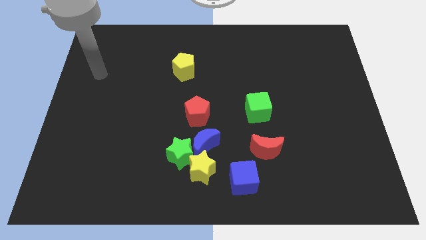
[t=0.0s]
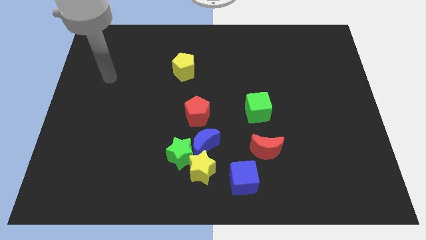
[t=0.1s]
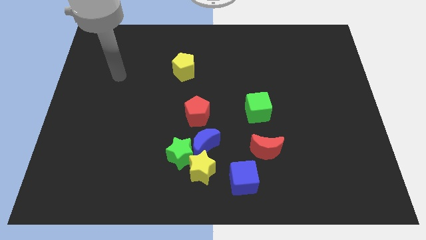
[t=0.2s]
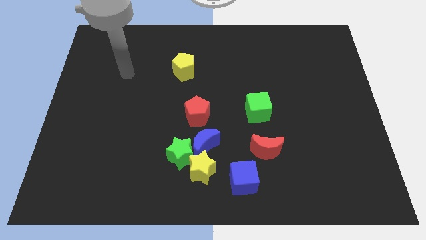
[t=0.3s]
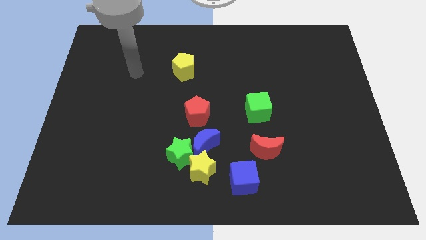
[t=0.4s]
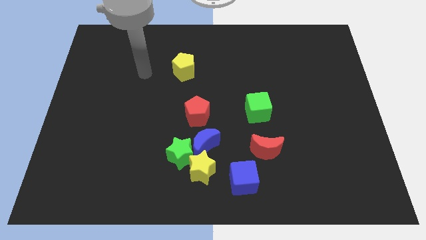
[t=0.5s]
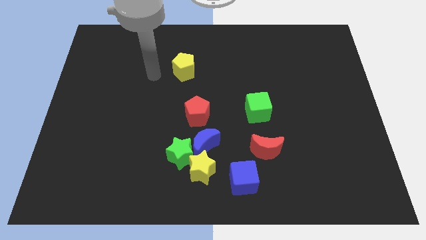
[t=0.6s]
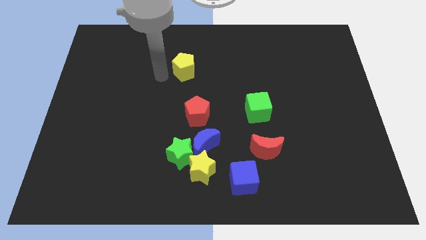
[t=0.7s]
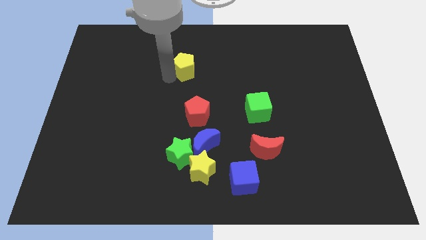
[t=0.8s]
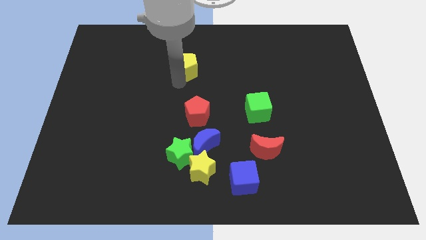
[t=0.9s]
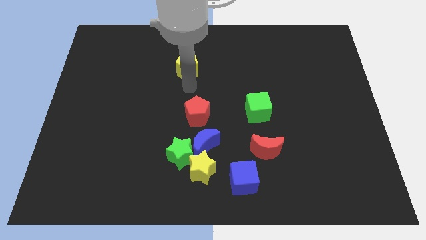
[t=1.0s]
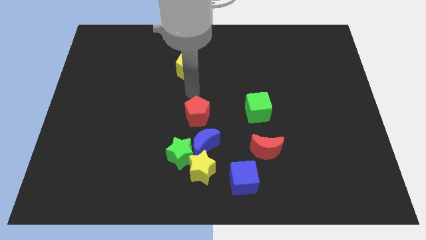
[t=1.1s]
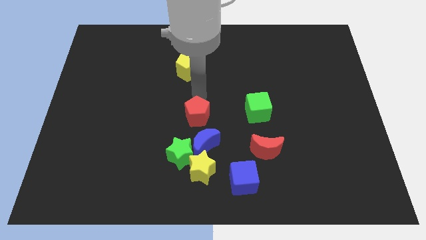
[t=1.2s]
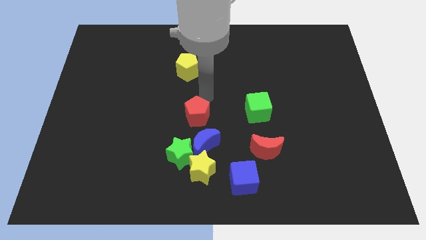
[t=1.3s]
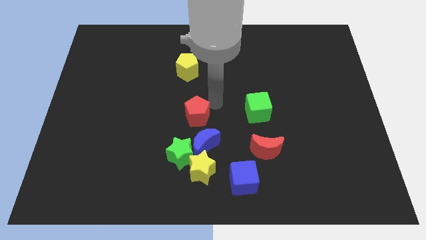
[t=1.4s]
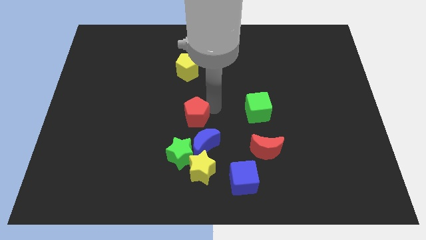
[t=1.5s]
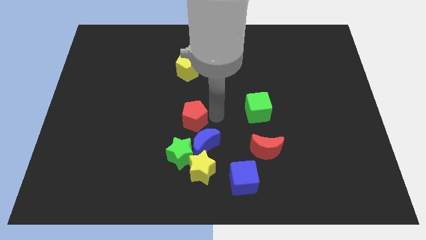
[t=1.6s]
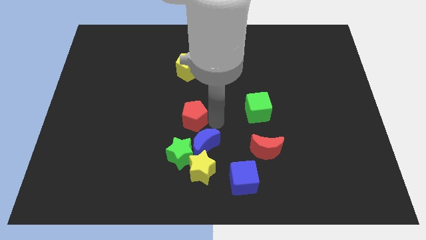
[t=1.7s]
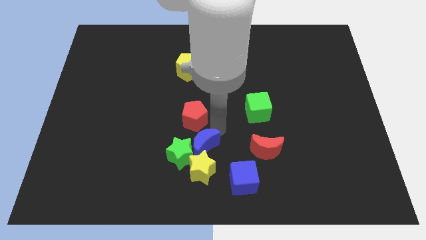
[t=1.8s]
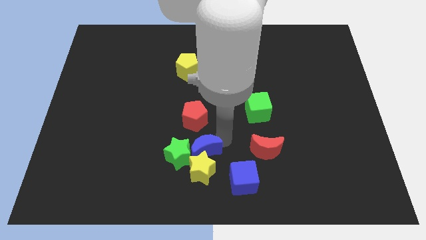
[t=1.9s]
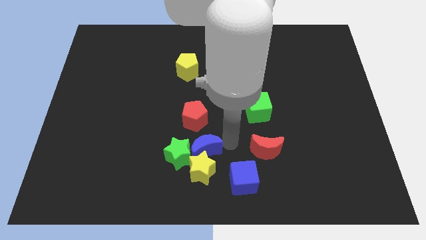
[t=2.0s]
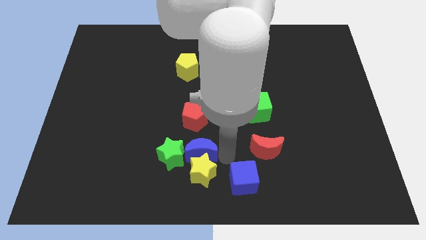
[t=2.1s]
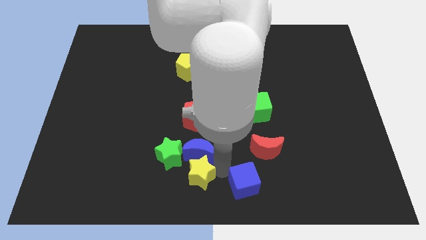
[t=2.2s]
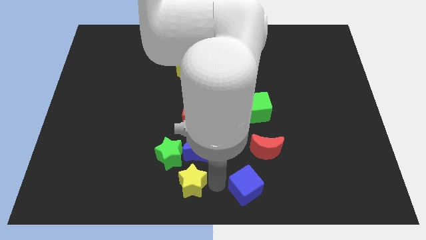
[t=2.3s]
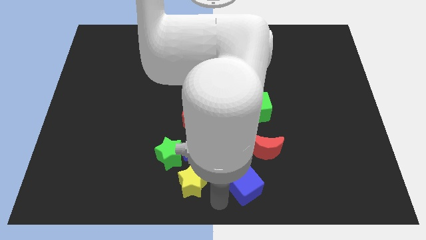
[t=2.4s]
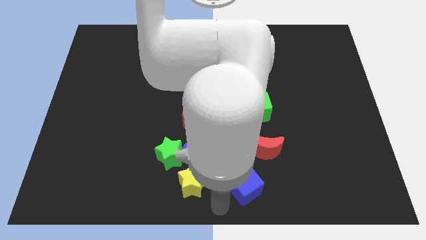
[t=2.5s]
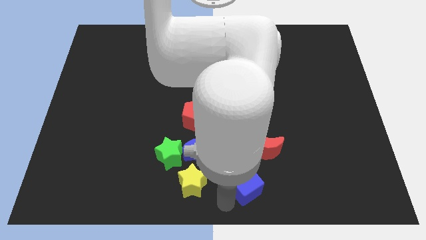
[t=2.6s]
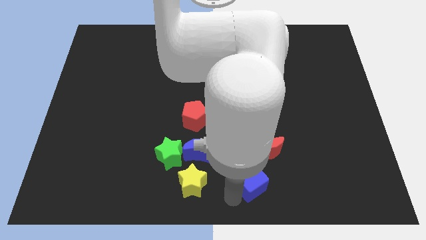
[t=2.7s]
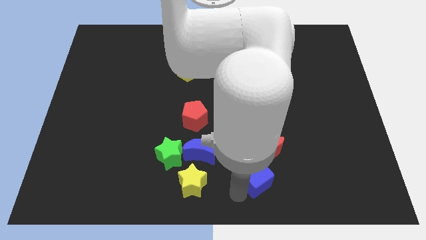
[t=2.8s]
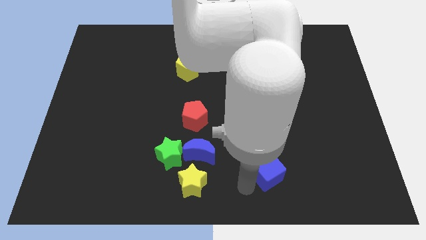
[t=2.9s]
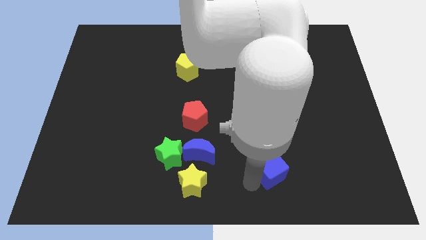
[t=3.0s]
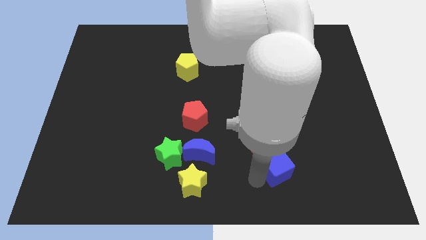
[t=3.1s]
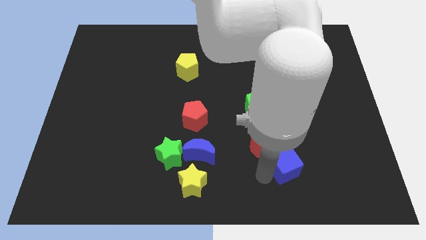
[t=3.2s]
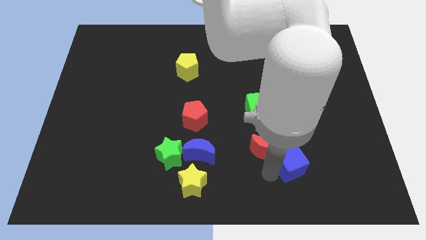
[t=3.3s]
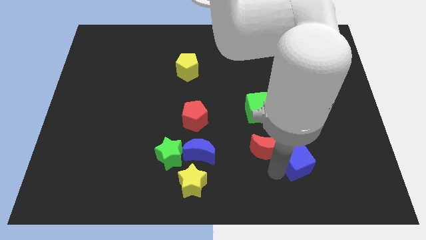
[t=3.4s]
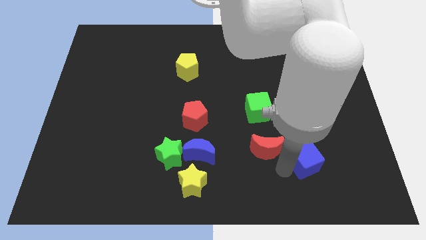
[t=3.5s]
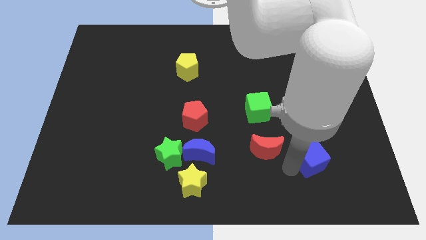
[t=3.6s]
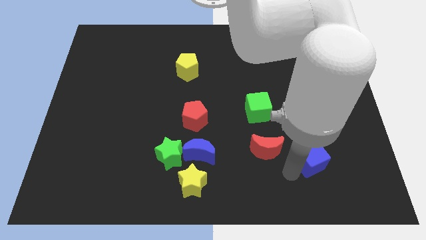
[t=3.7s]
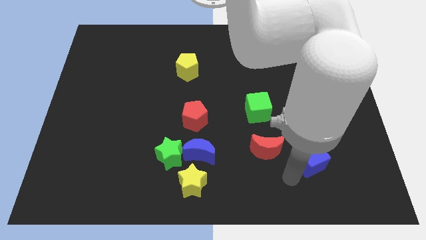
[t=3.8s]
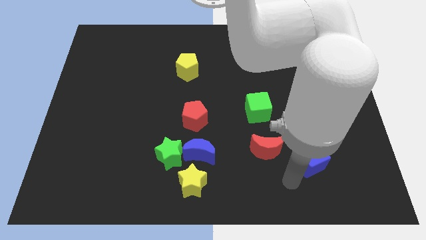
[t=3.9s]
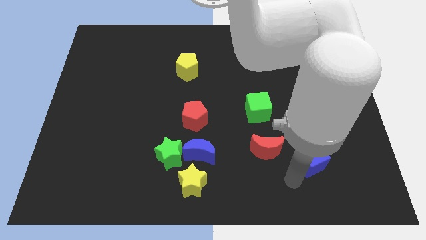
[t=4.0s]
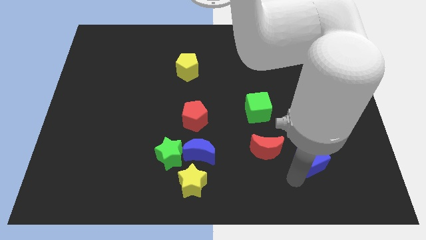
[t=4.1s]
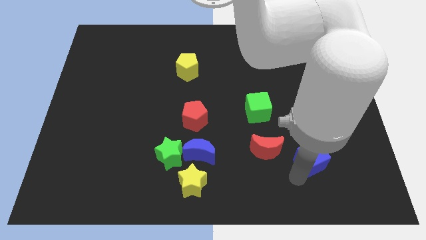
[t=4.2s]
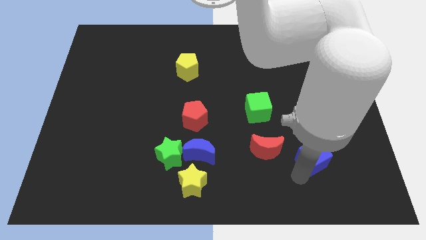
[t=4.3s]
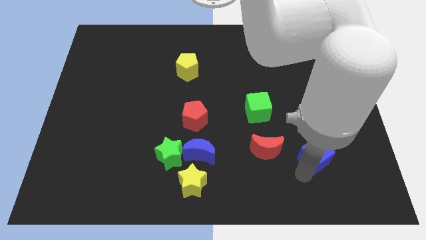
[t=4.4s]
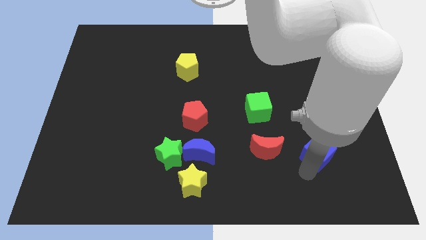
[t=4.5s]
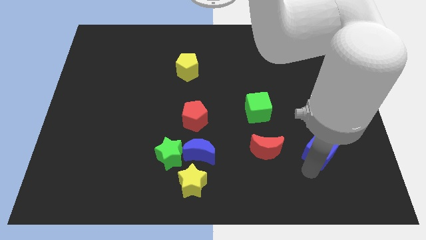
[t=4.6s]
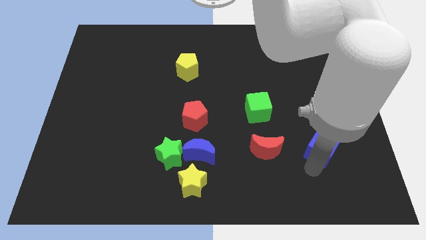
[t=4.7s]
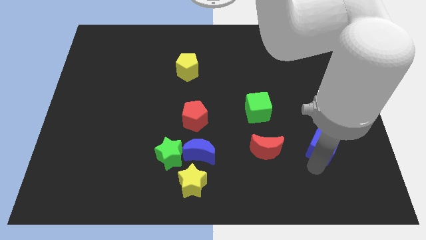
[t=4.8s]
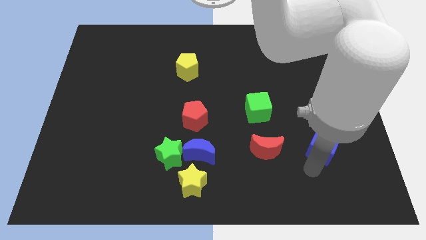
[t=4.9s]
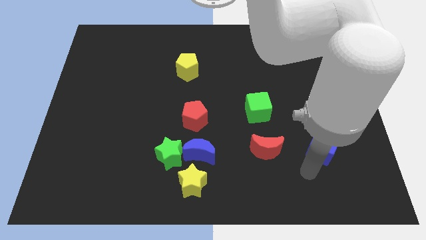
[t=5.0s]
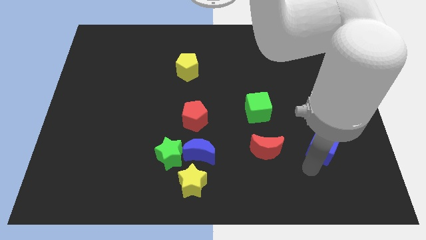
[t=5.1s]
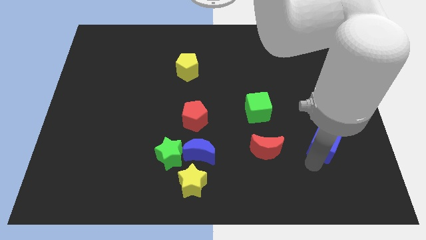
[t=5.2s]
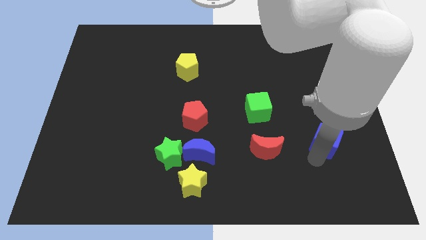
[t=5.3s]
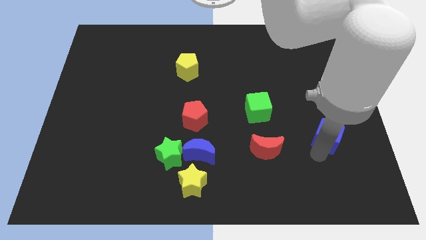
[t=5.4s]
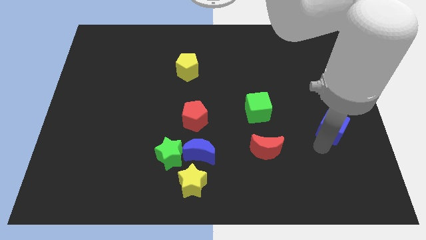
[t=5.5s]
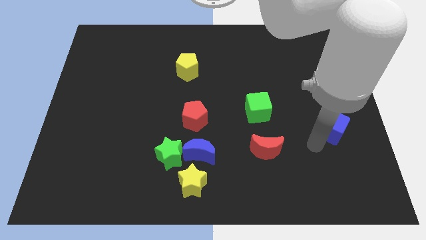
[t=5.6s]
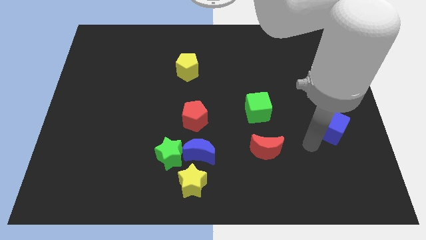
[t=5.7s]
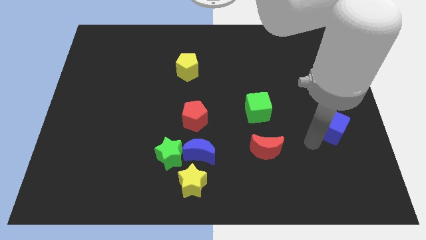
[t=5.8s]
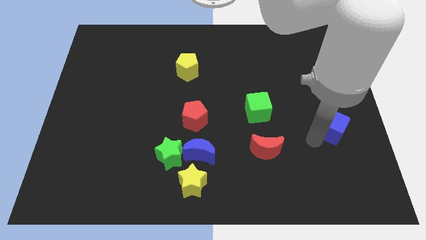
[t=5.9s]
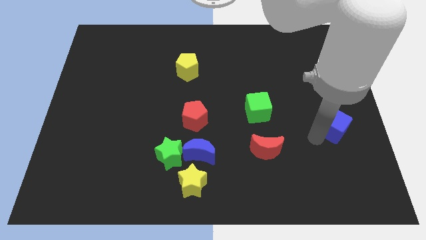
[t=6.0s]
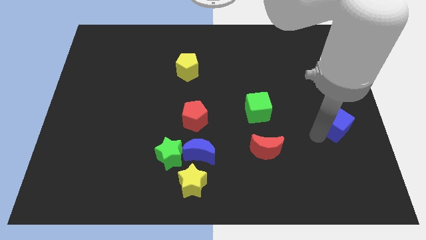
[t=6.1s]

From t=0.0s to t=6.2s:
move the blue cube to the right side

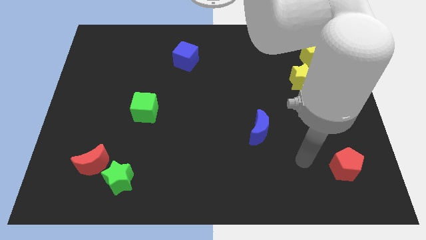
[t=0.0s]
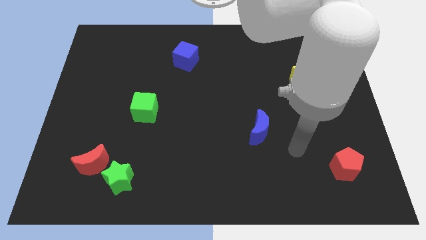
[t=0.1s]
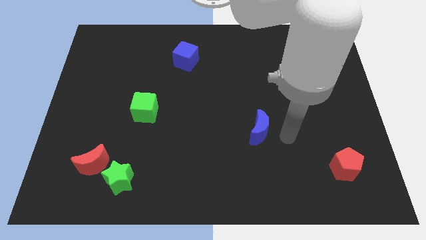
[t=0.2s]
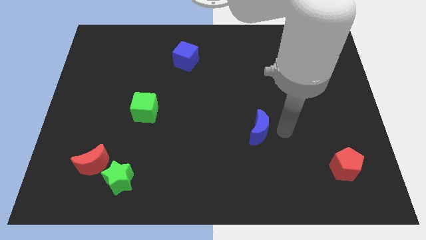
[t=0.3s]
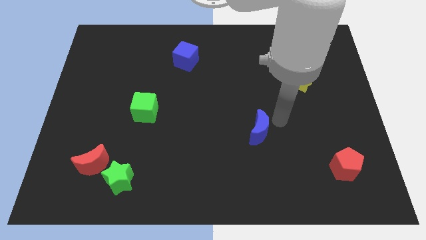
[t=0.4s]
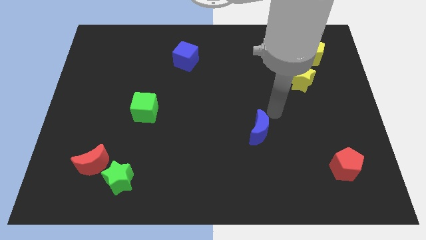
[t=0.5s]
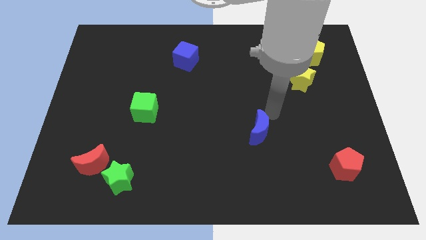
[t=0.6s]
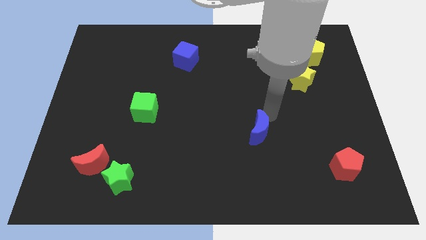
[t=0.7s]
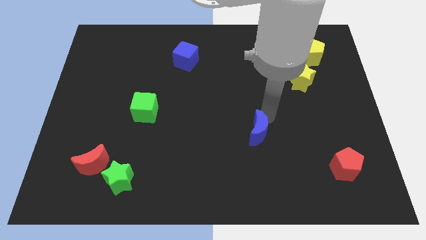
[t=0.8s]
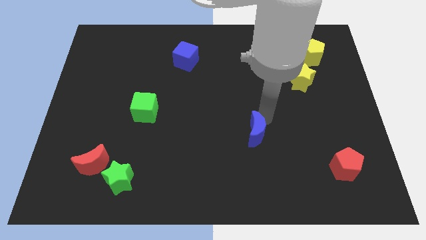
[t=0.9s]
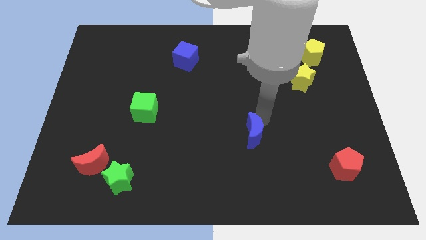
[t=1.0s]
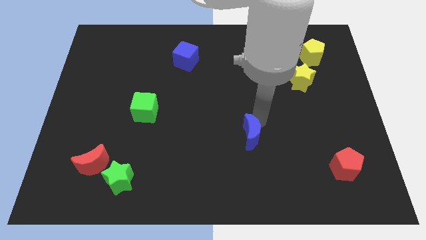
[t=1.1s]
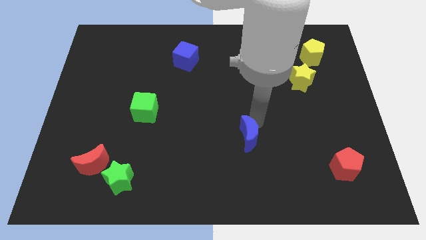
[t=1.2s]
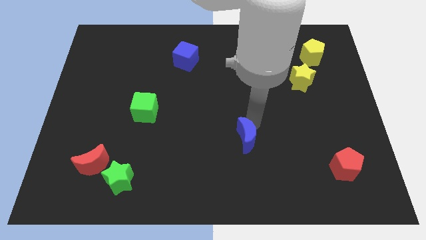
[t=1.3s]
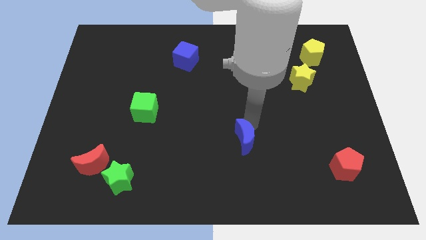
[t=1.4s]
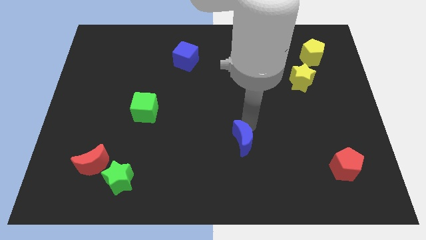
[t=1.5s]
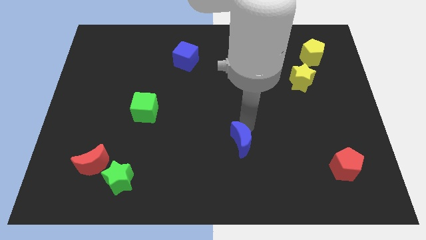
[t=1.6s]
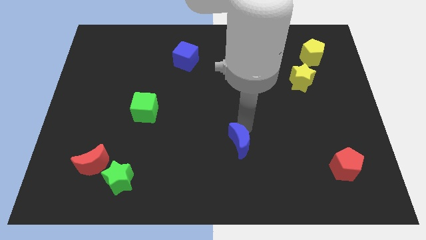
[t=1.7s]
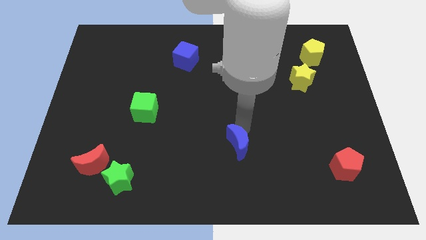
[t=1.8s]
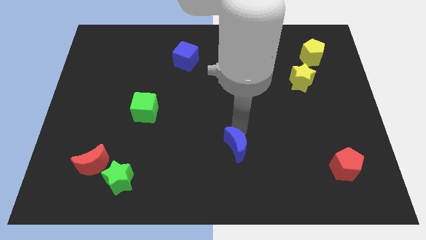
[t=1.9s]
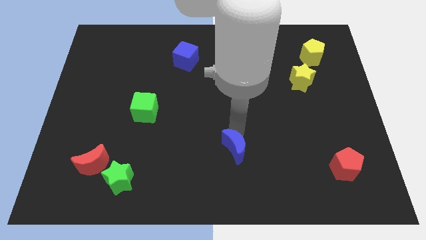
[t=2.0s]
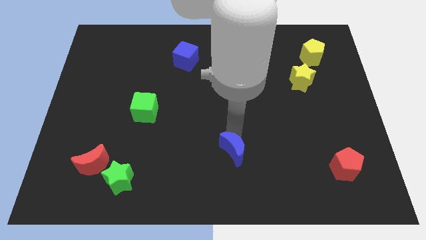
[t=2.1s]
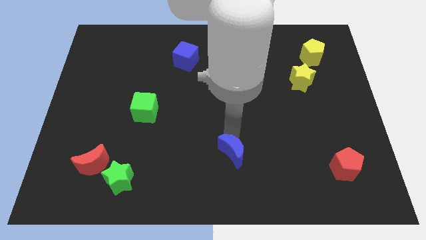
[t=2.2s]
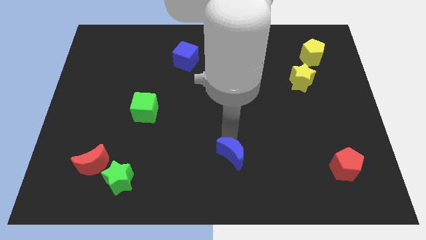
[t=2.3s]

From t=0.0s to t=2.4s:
move the blue moon to the bottom
